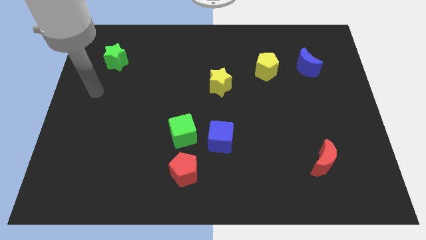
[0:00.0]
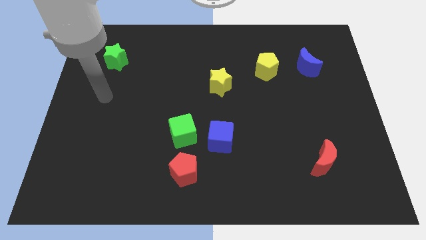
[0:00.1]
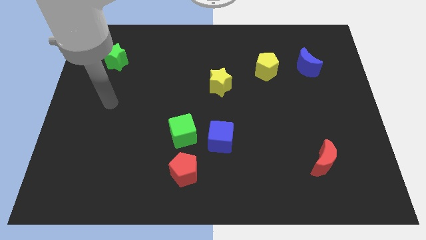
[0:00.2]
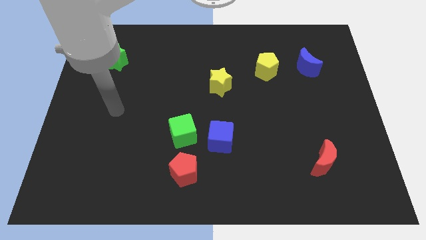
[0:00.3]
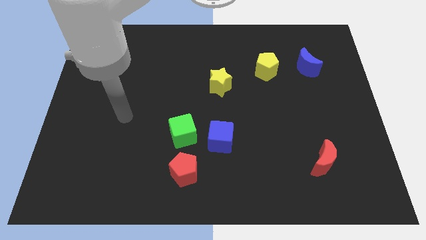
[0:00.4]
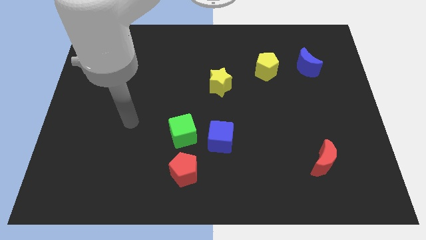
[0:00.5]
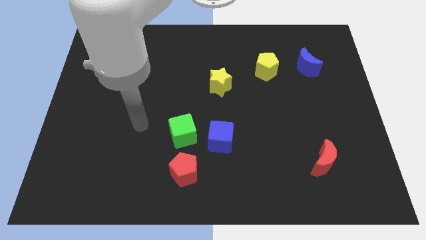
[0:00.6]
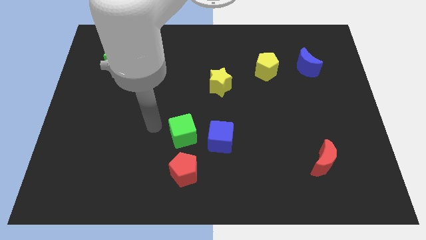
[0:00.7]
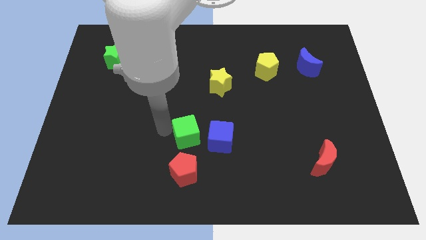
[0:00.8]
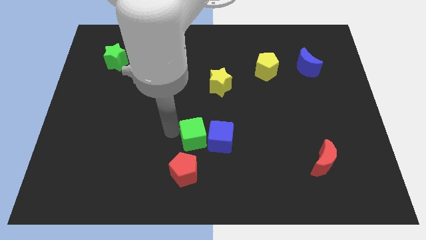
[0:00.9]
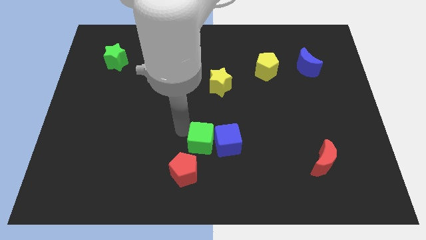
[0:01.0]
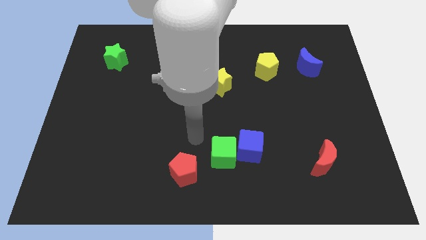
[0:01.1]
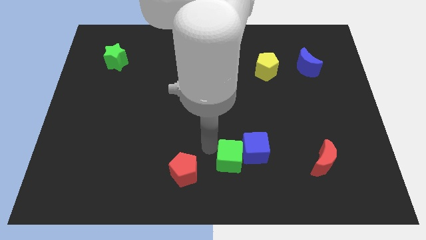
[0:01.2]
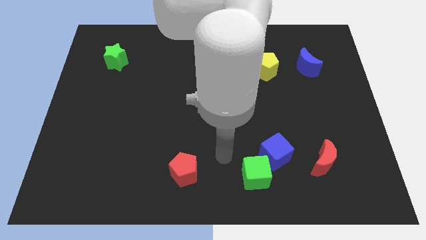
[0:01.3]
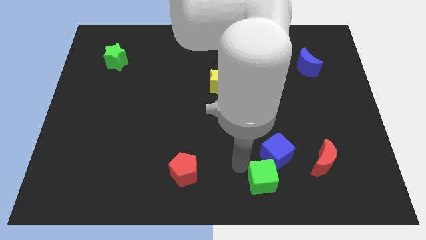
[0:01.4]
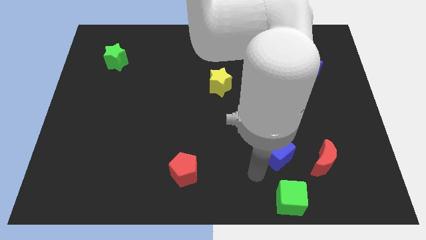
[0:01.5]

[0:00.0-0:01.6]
move the blue cube away from the green cube

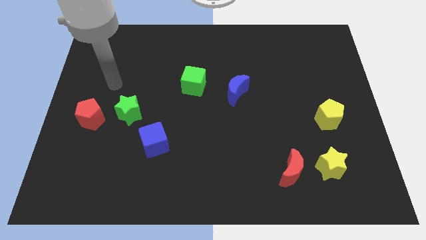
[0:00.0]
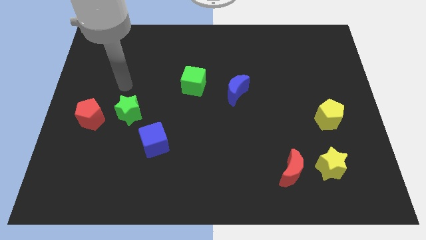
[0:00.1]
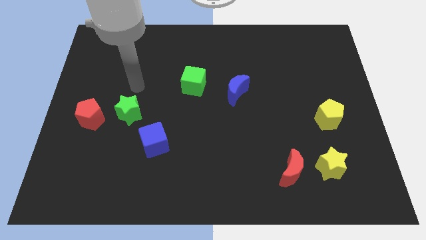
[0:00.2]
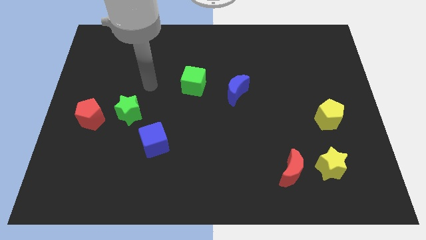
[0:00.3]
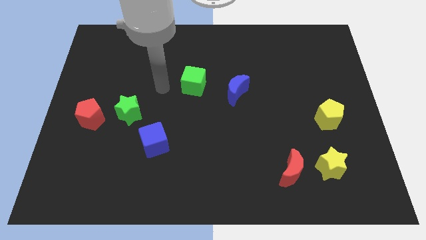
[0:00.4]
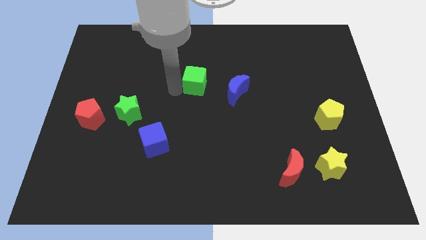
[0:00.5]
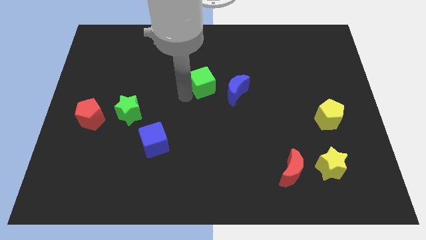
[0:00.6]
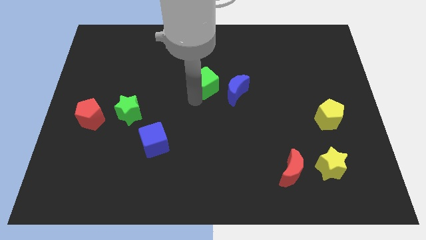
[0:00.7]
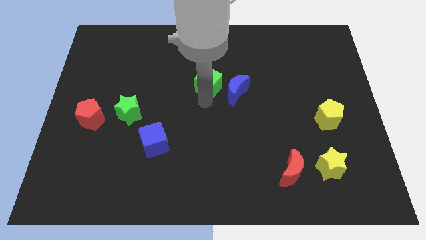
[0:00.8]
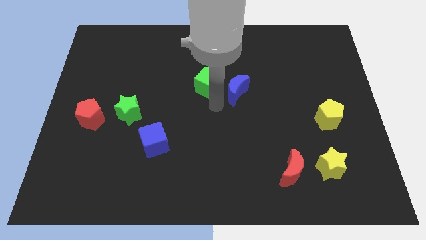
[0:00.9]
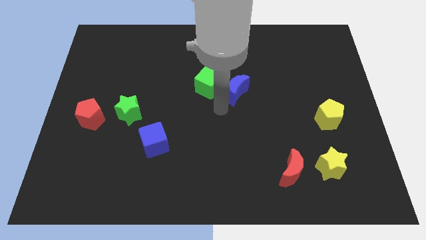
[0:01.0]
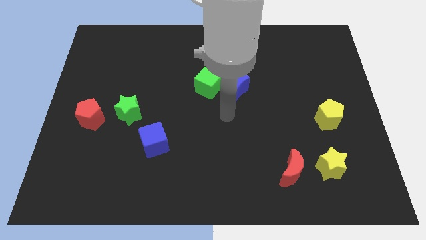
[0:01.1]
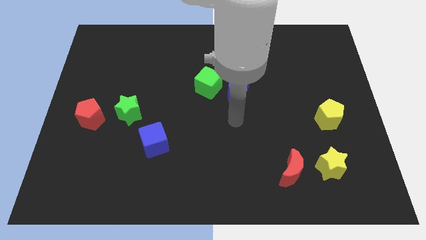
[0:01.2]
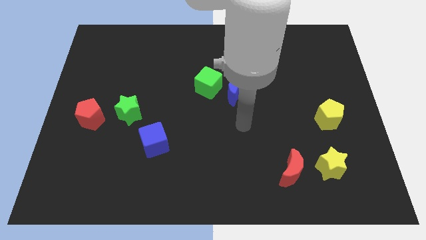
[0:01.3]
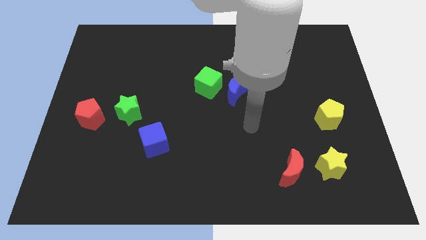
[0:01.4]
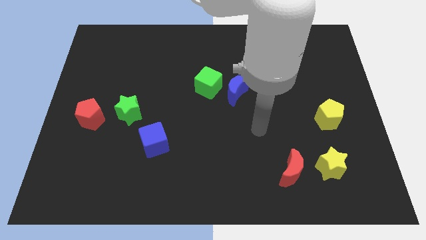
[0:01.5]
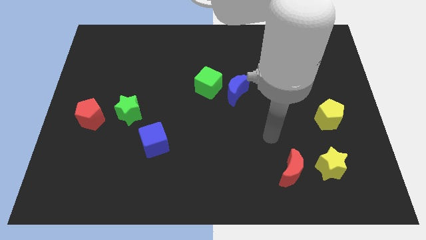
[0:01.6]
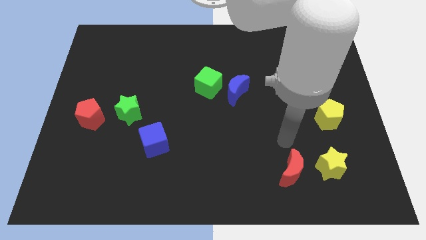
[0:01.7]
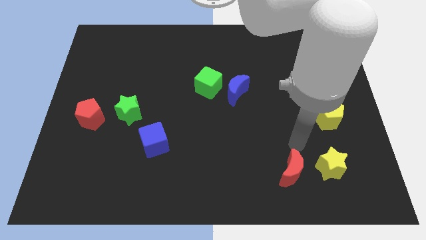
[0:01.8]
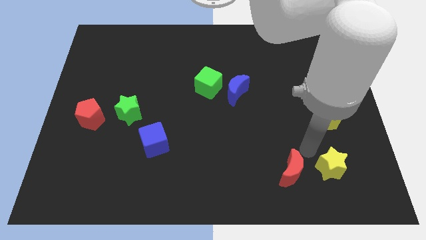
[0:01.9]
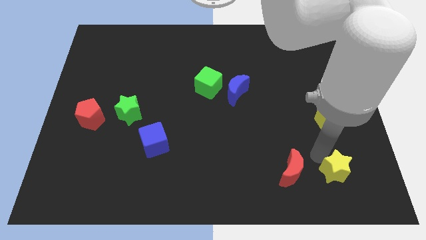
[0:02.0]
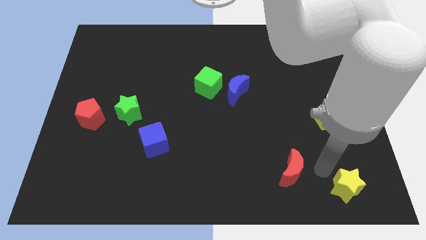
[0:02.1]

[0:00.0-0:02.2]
pull the red moon apart from the yellow star

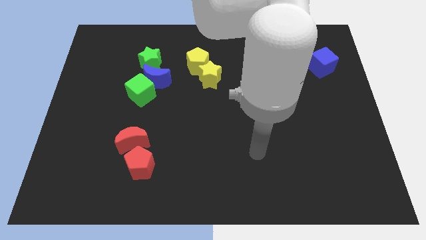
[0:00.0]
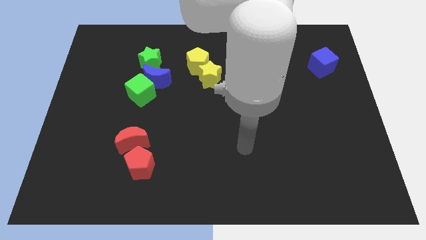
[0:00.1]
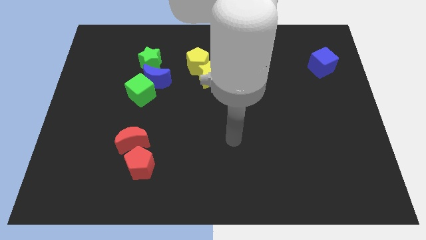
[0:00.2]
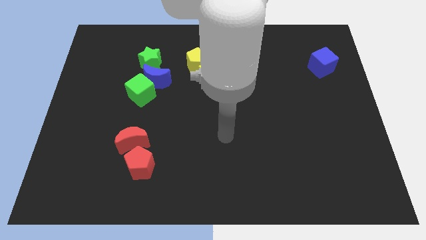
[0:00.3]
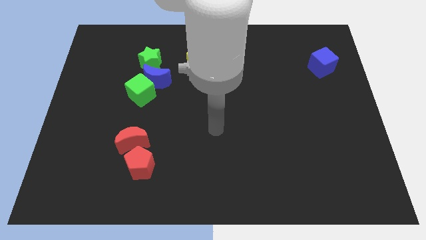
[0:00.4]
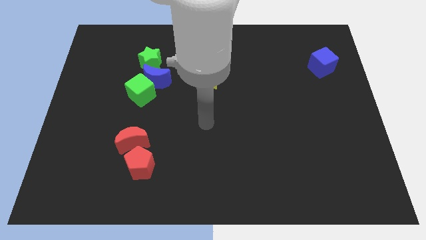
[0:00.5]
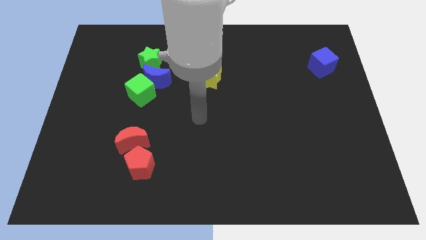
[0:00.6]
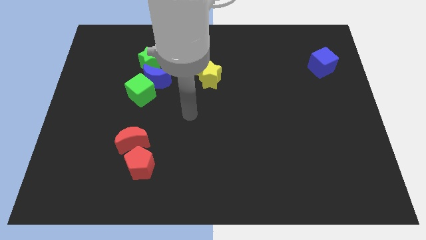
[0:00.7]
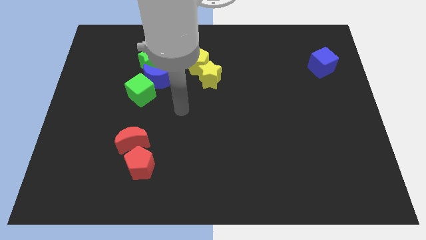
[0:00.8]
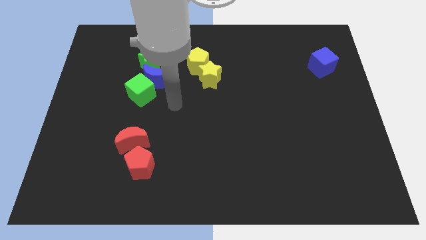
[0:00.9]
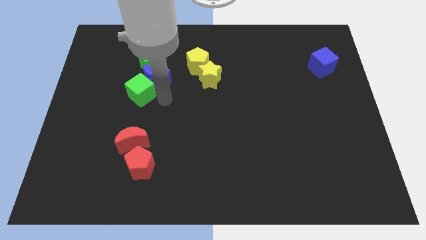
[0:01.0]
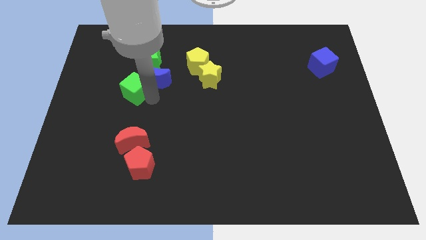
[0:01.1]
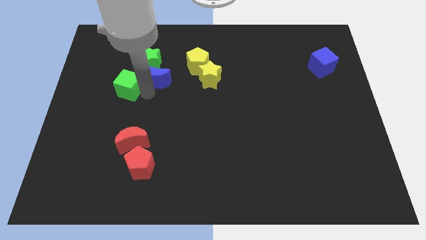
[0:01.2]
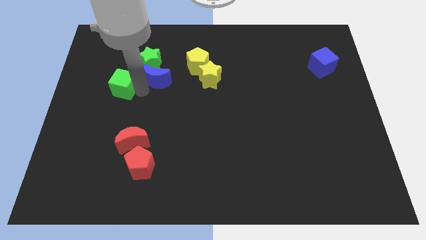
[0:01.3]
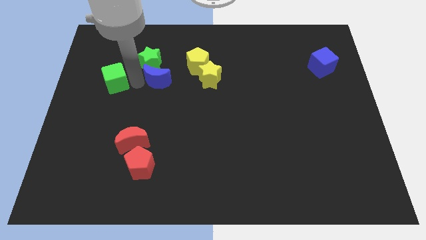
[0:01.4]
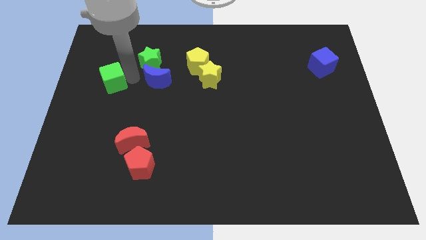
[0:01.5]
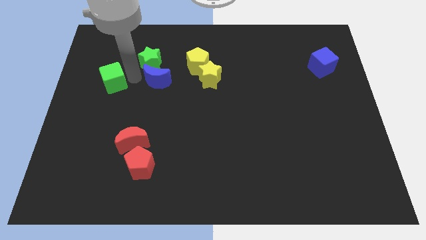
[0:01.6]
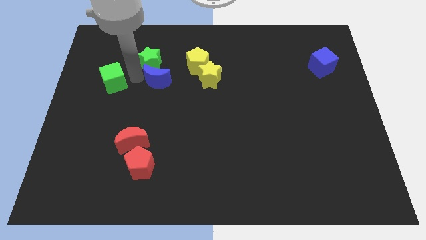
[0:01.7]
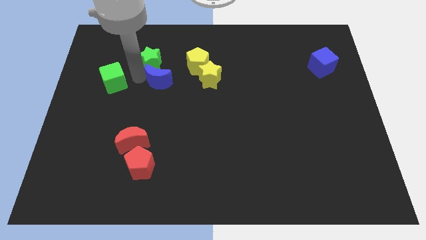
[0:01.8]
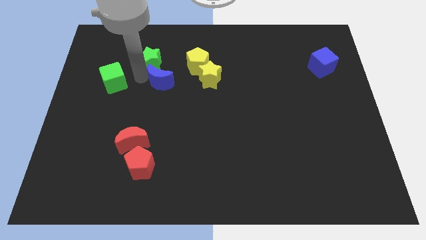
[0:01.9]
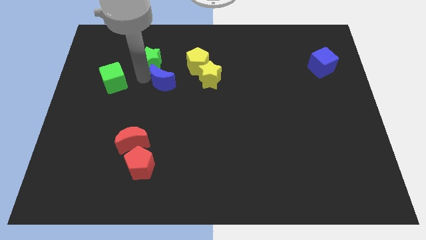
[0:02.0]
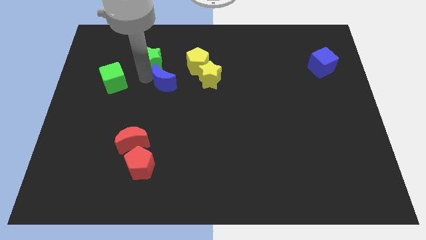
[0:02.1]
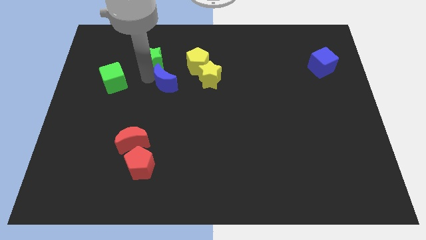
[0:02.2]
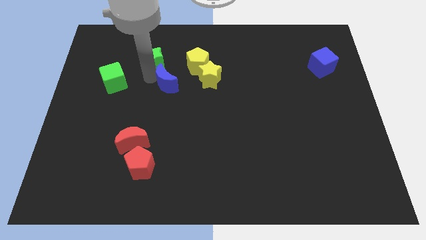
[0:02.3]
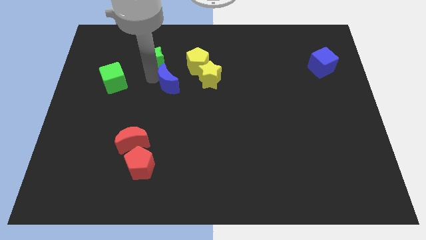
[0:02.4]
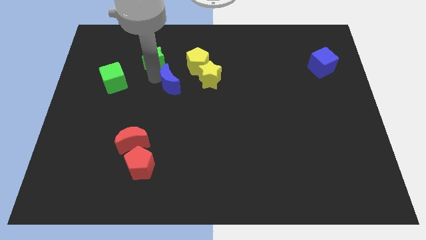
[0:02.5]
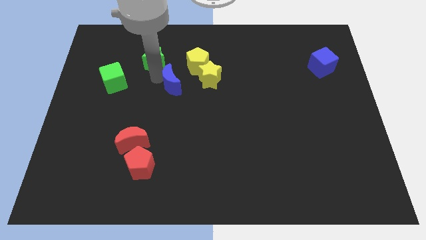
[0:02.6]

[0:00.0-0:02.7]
move the blue moon away from the green cube and green star

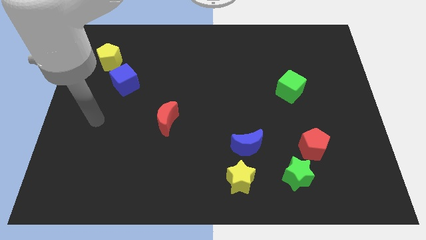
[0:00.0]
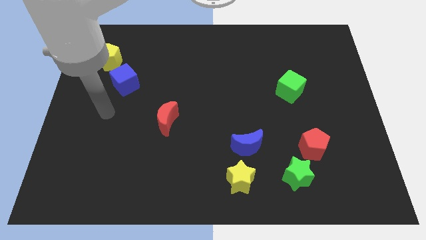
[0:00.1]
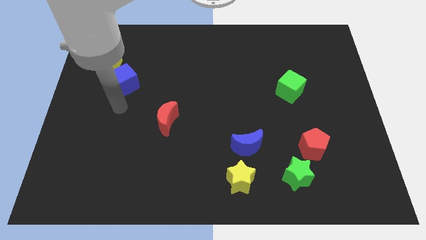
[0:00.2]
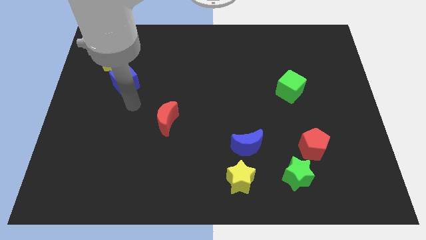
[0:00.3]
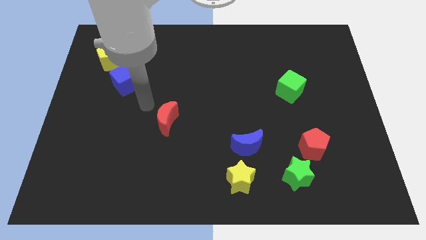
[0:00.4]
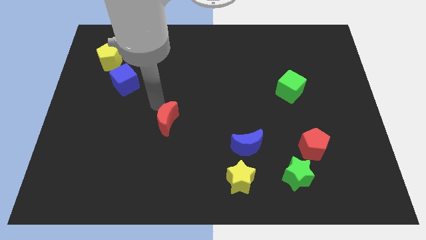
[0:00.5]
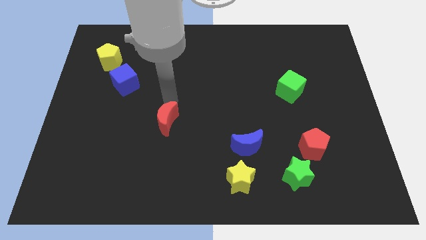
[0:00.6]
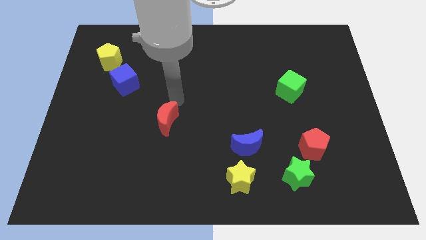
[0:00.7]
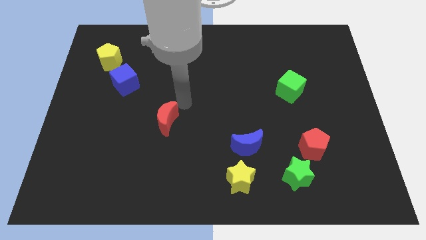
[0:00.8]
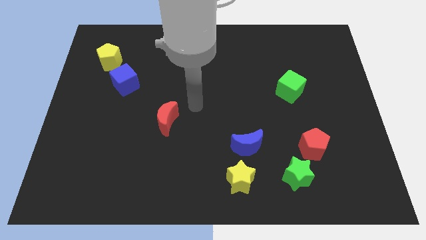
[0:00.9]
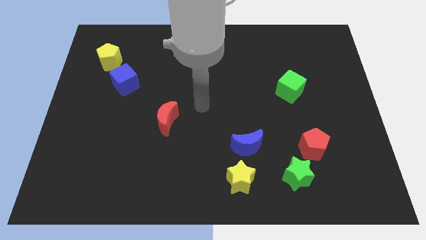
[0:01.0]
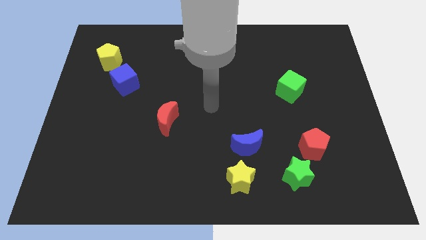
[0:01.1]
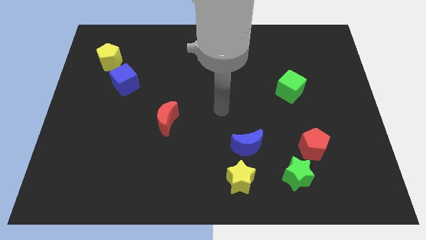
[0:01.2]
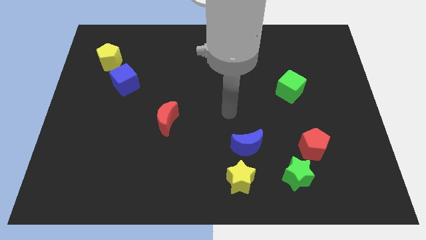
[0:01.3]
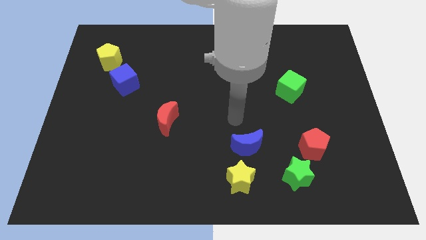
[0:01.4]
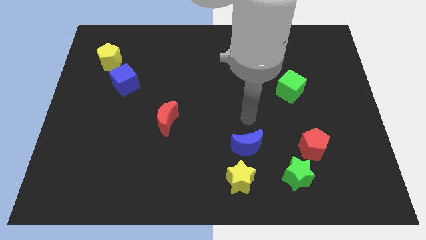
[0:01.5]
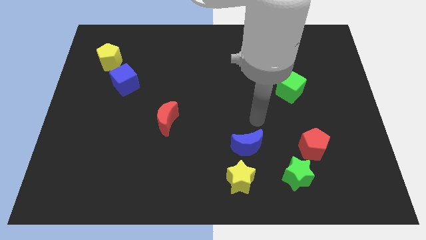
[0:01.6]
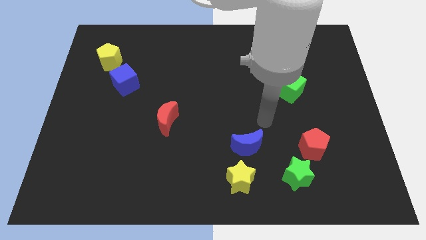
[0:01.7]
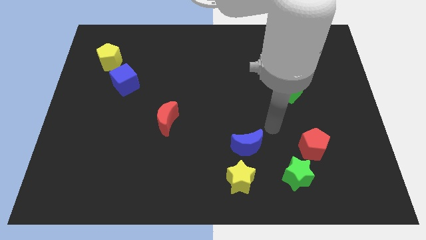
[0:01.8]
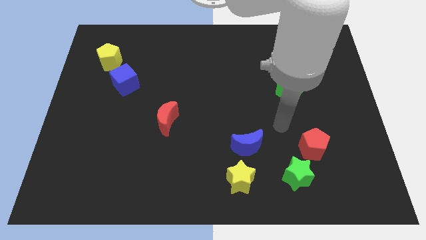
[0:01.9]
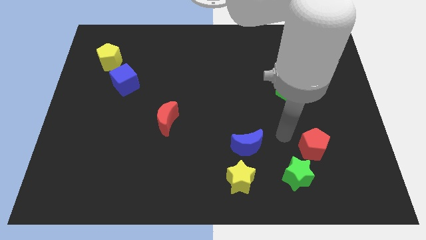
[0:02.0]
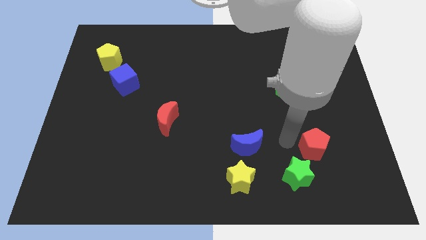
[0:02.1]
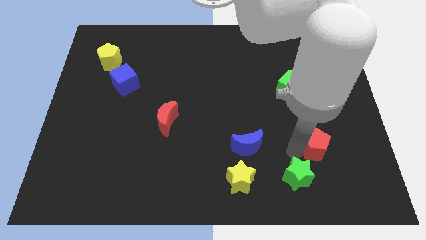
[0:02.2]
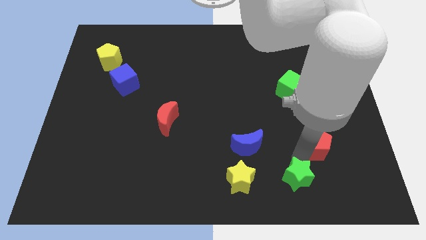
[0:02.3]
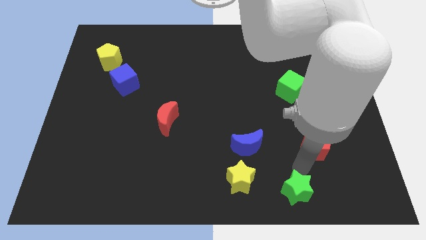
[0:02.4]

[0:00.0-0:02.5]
move the red pentagon away from the green star

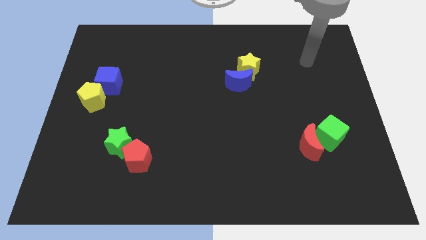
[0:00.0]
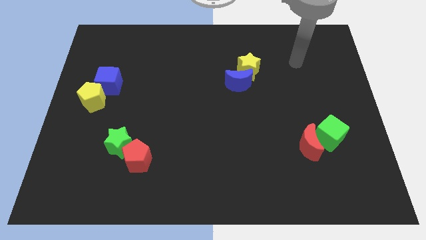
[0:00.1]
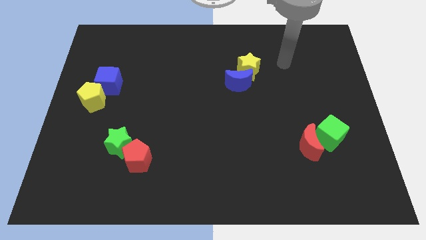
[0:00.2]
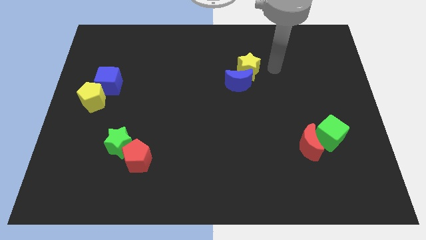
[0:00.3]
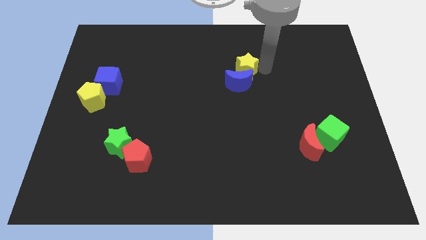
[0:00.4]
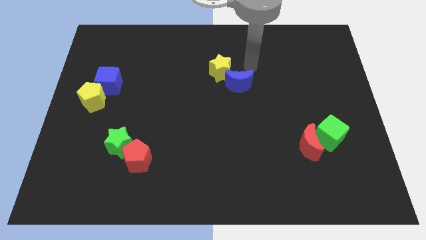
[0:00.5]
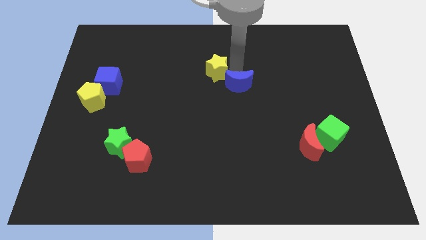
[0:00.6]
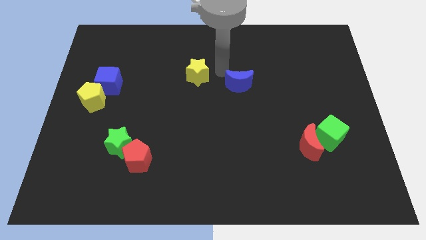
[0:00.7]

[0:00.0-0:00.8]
pull the blue moon apart from the yellow star
